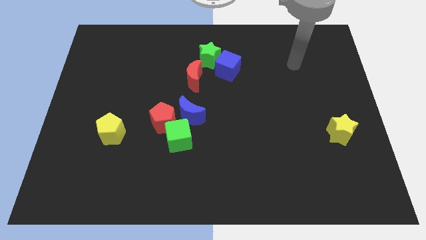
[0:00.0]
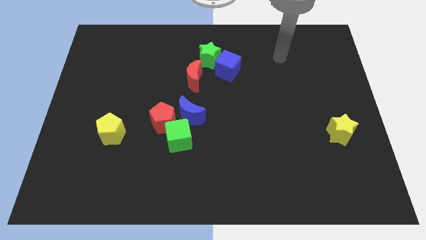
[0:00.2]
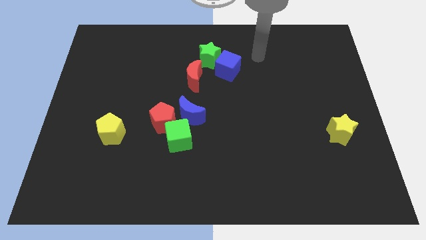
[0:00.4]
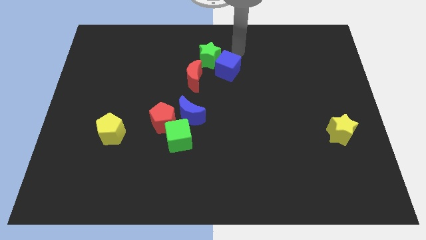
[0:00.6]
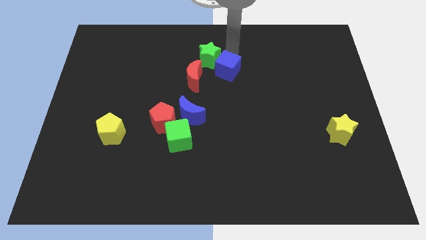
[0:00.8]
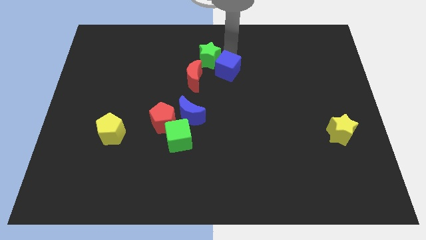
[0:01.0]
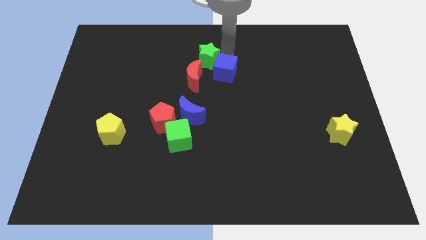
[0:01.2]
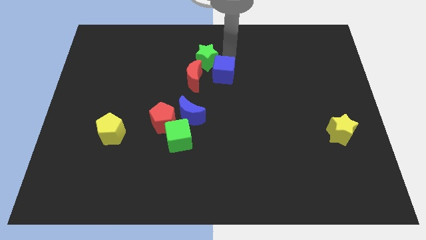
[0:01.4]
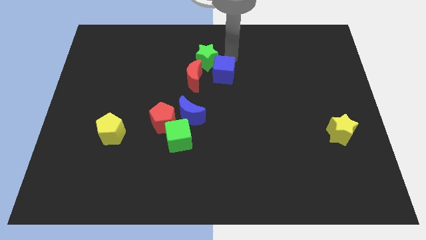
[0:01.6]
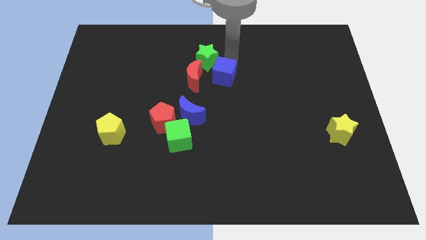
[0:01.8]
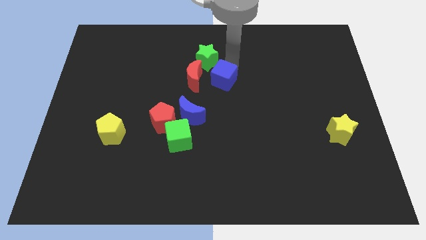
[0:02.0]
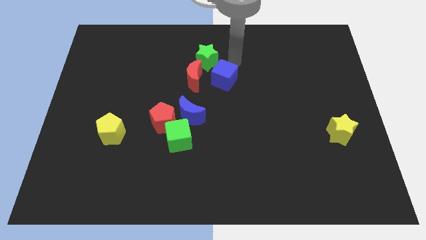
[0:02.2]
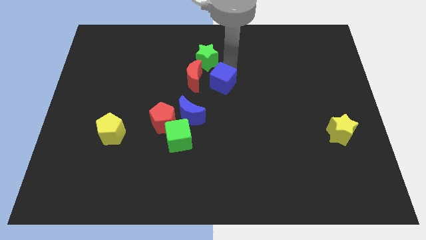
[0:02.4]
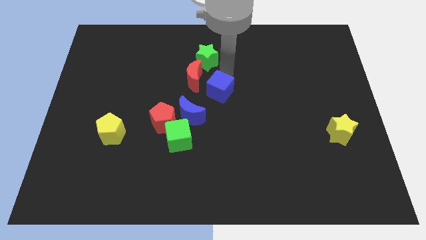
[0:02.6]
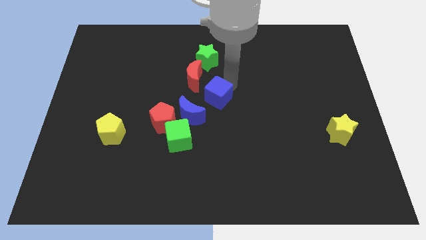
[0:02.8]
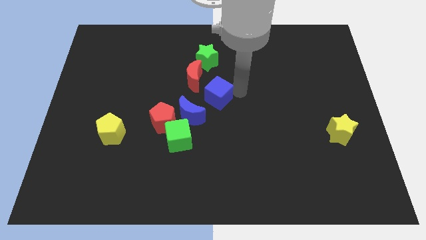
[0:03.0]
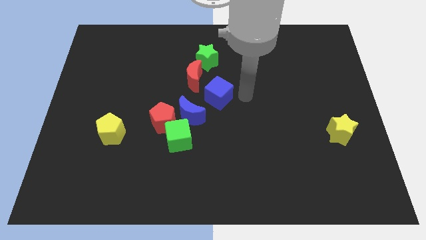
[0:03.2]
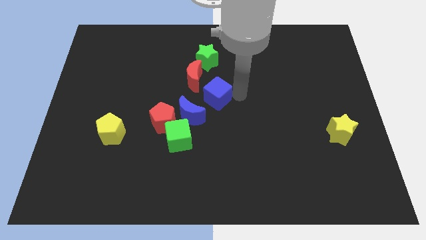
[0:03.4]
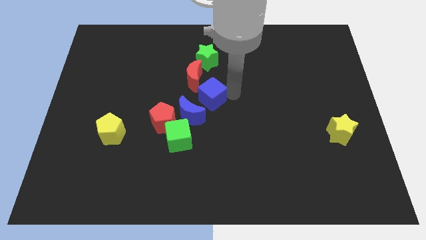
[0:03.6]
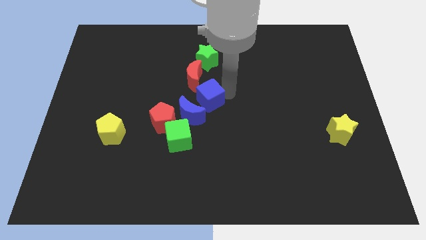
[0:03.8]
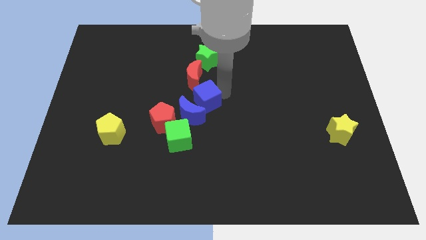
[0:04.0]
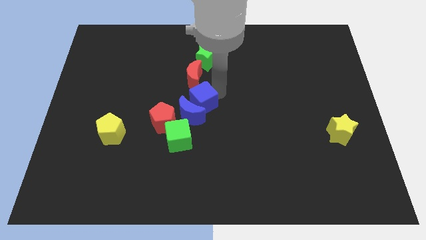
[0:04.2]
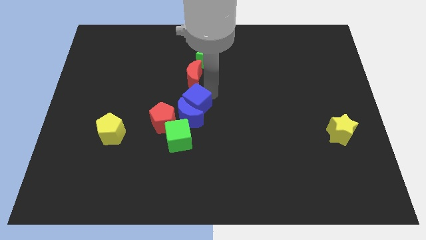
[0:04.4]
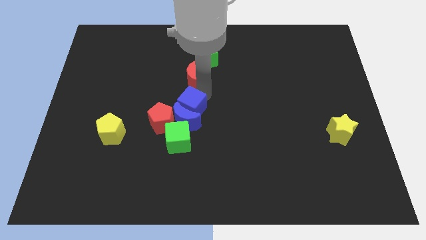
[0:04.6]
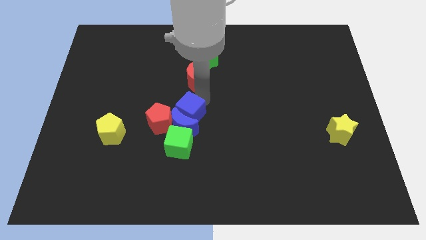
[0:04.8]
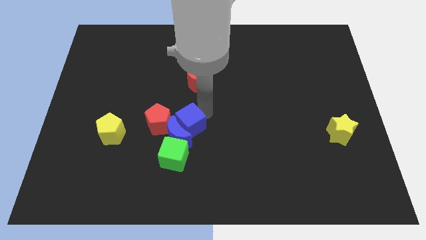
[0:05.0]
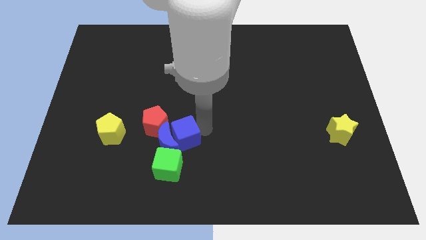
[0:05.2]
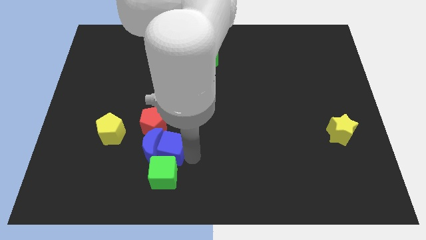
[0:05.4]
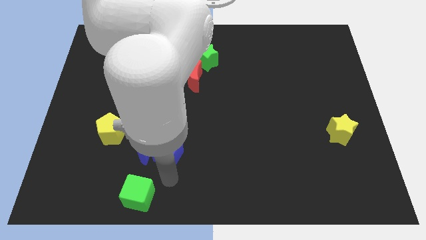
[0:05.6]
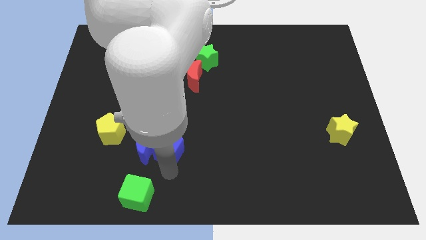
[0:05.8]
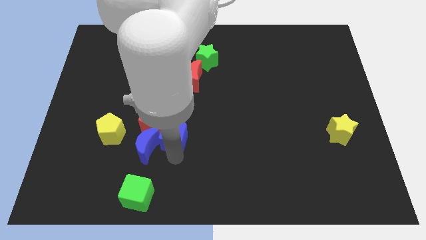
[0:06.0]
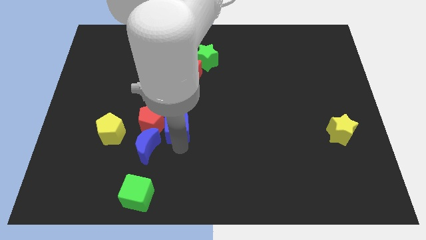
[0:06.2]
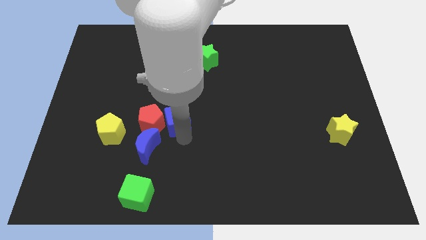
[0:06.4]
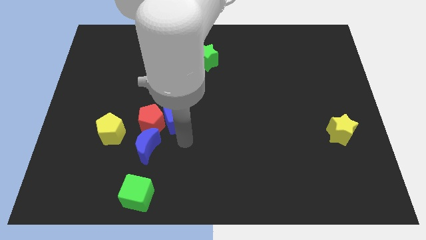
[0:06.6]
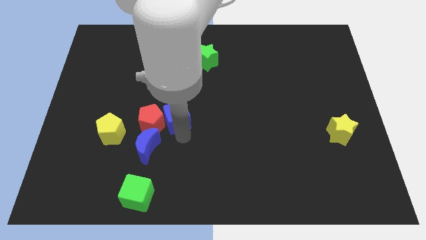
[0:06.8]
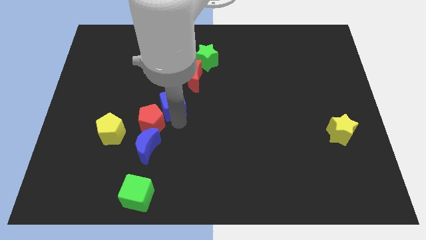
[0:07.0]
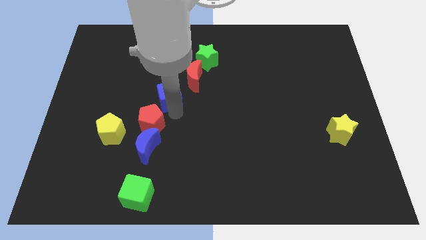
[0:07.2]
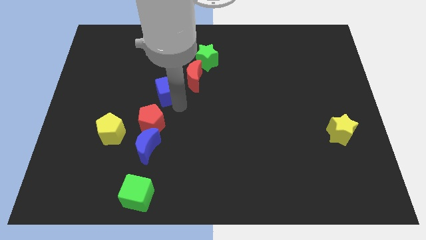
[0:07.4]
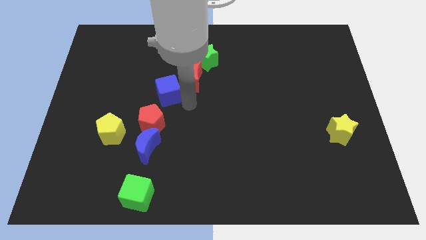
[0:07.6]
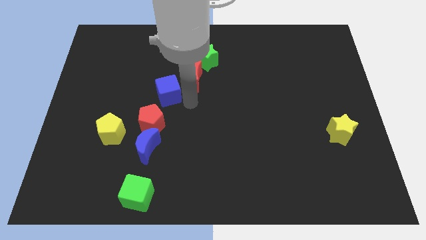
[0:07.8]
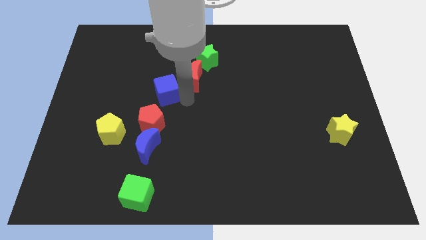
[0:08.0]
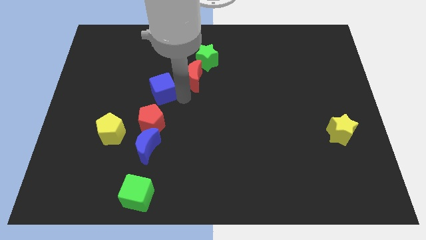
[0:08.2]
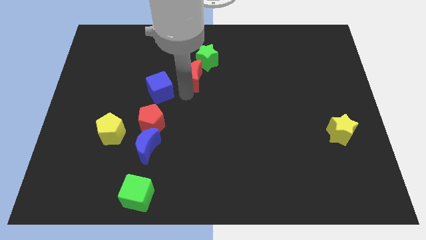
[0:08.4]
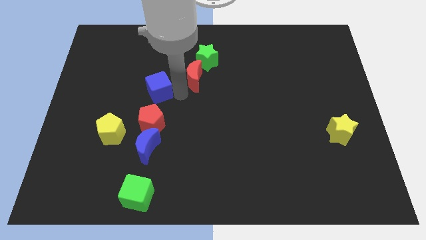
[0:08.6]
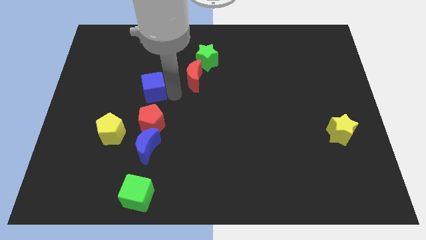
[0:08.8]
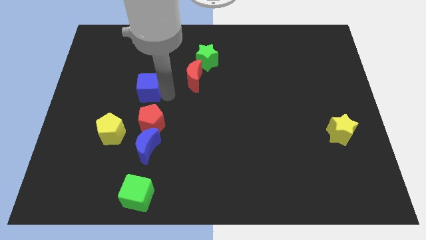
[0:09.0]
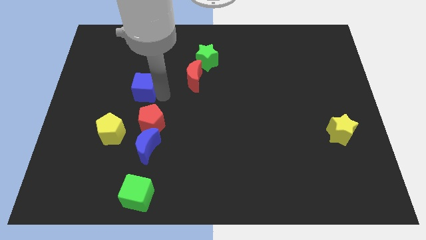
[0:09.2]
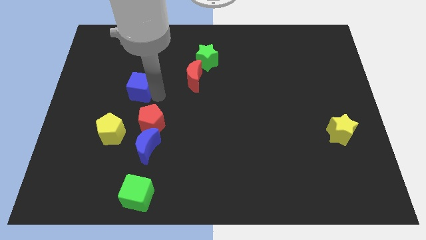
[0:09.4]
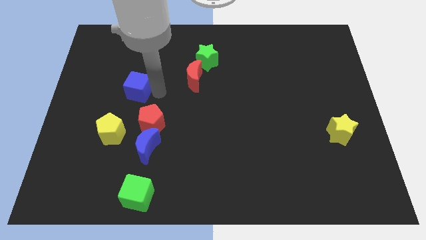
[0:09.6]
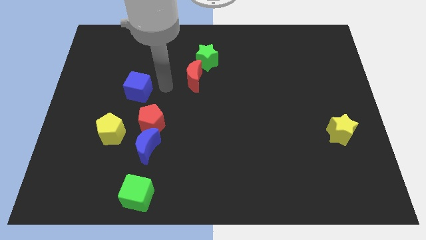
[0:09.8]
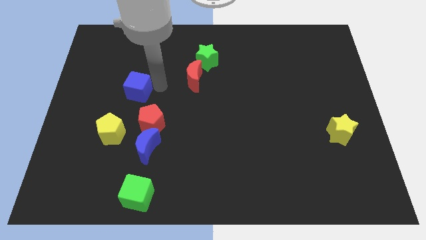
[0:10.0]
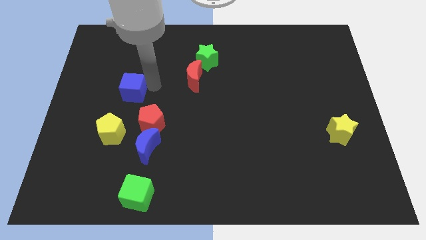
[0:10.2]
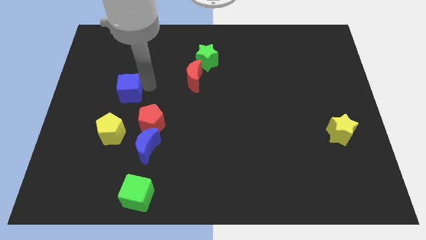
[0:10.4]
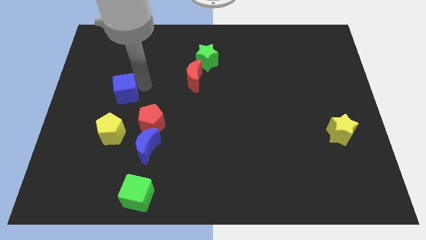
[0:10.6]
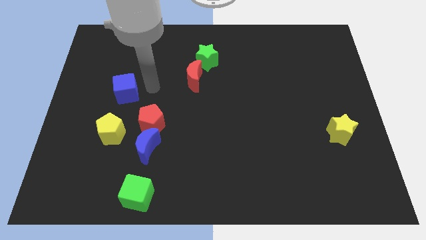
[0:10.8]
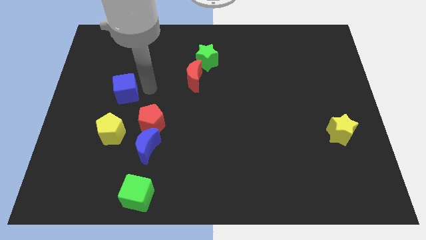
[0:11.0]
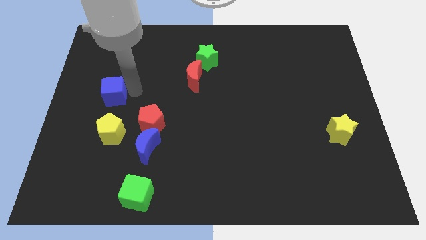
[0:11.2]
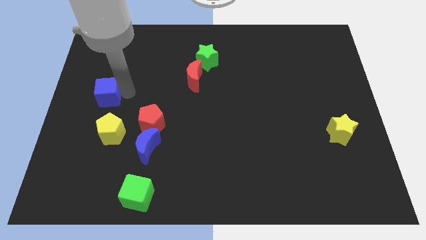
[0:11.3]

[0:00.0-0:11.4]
push the blue cube to the left side

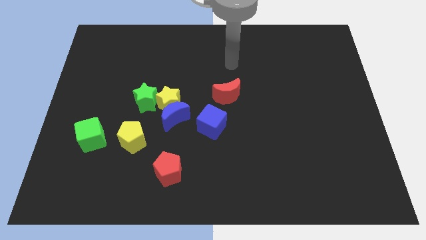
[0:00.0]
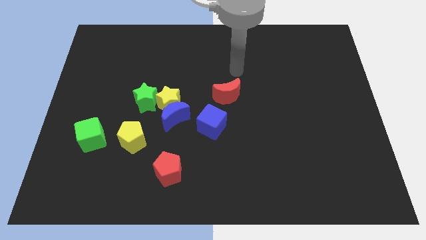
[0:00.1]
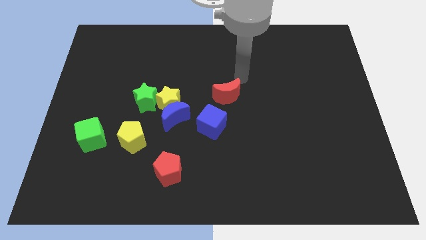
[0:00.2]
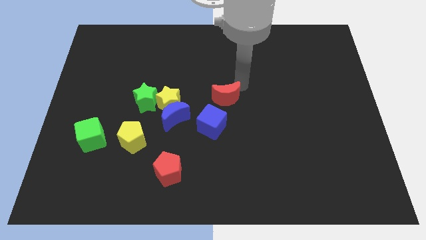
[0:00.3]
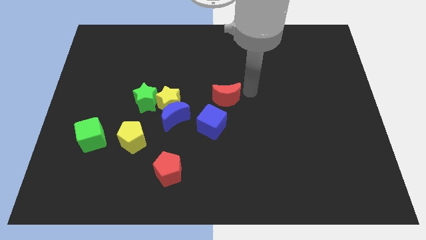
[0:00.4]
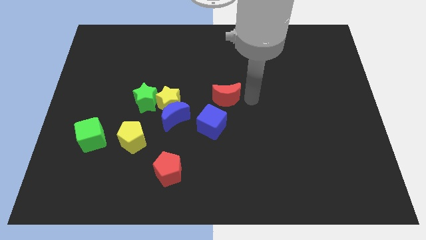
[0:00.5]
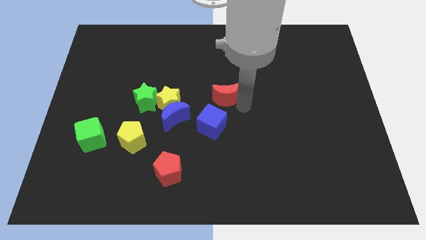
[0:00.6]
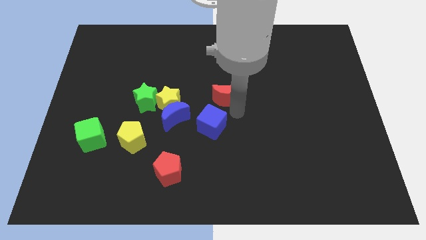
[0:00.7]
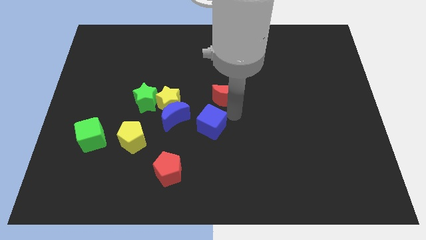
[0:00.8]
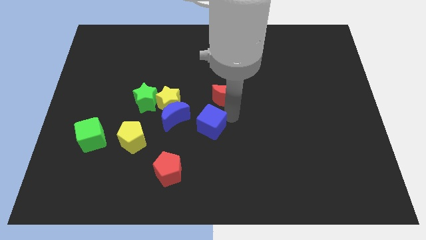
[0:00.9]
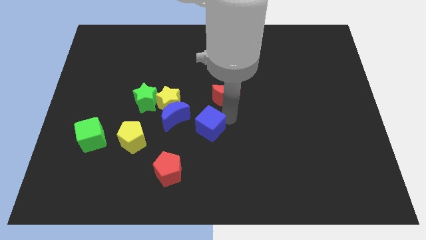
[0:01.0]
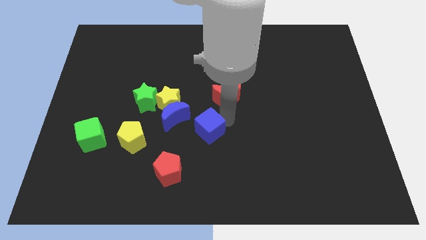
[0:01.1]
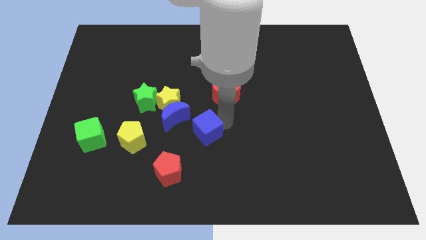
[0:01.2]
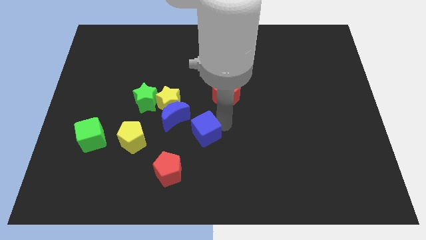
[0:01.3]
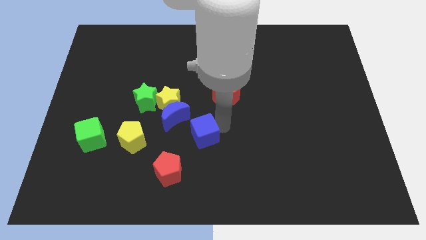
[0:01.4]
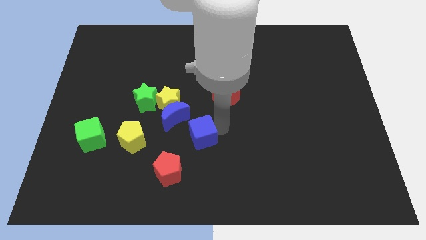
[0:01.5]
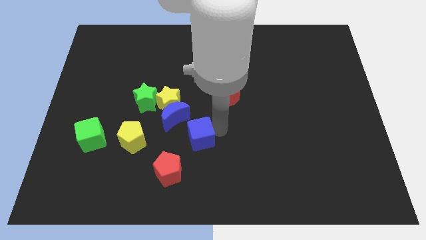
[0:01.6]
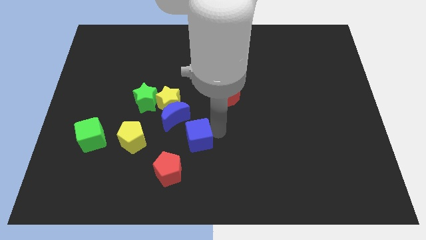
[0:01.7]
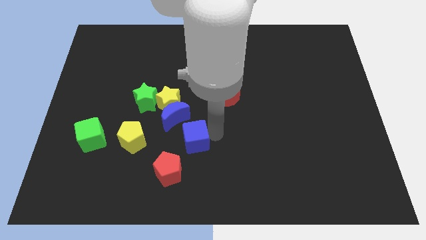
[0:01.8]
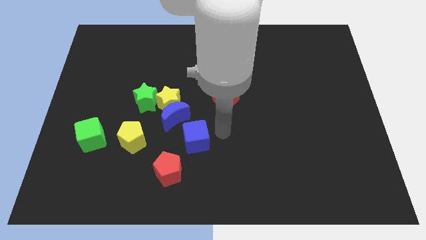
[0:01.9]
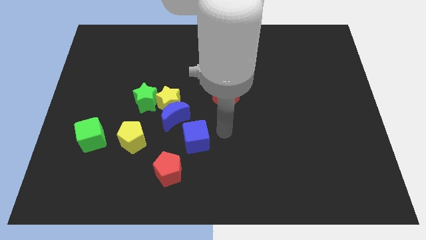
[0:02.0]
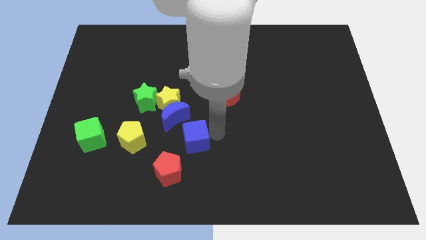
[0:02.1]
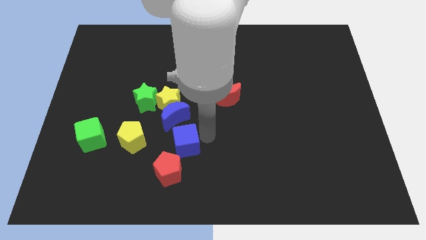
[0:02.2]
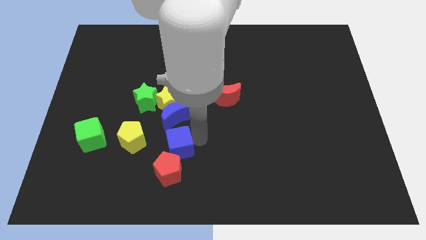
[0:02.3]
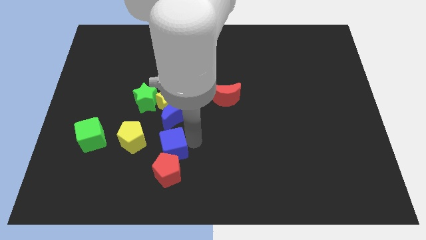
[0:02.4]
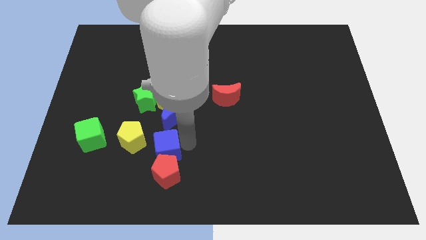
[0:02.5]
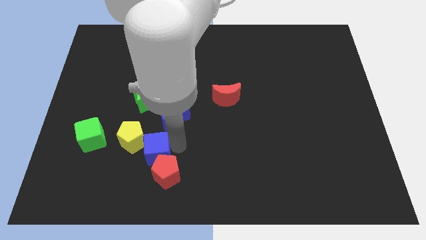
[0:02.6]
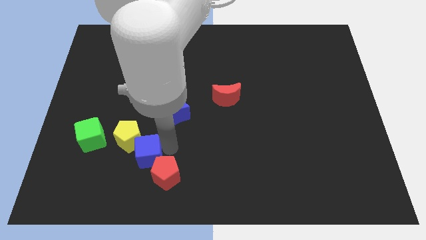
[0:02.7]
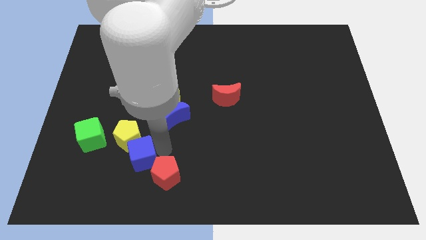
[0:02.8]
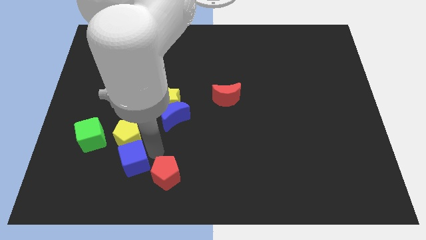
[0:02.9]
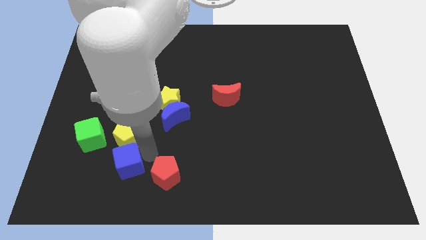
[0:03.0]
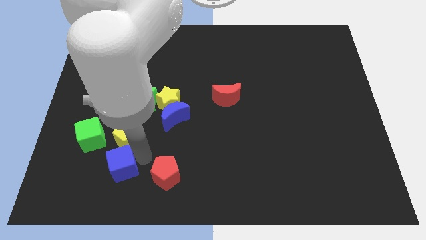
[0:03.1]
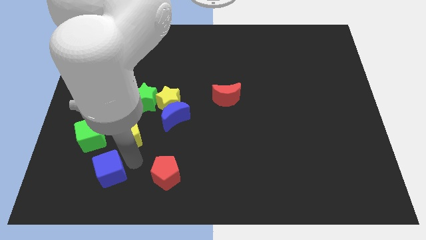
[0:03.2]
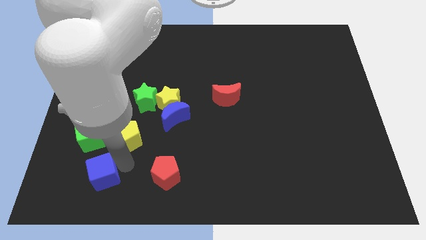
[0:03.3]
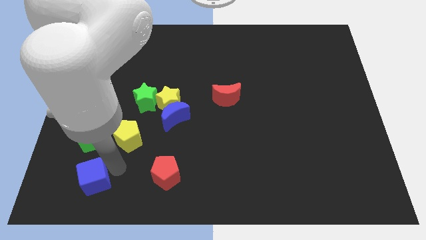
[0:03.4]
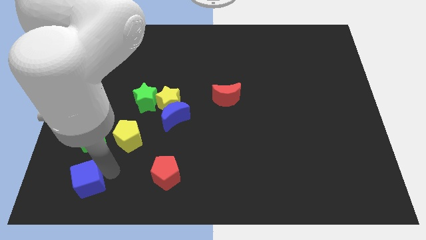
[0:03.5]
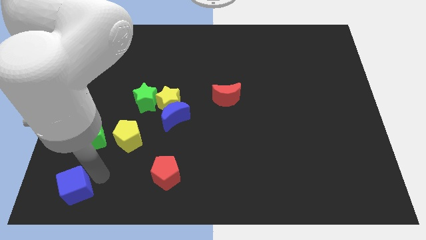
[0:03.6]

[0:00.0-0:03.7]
put the blue cube to the lower left corner
